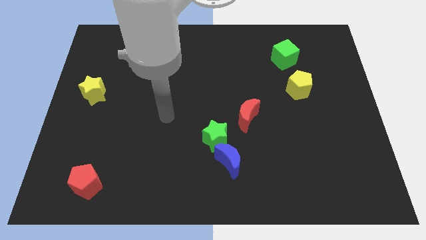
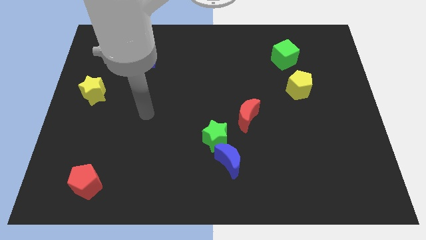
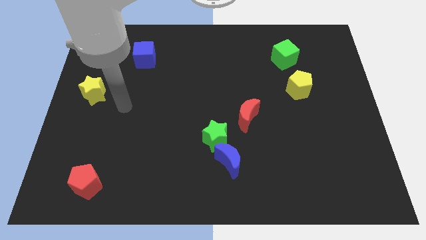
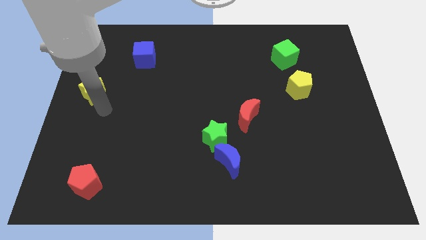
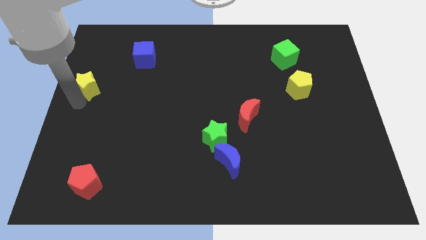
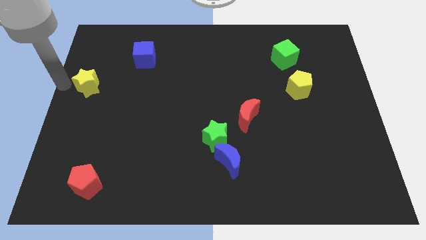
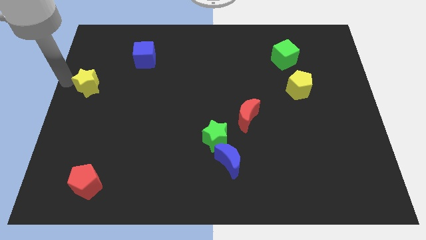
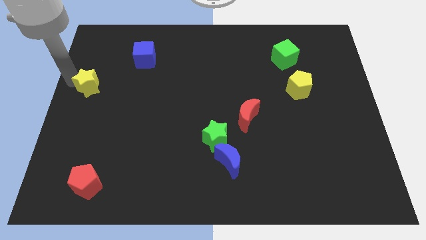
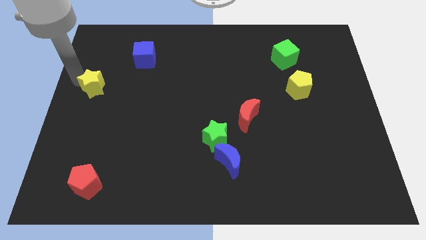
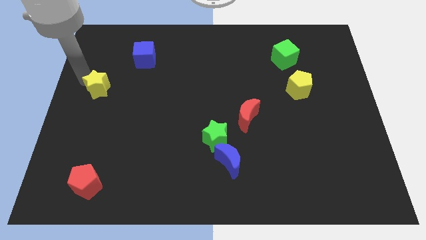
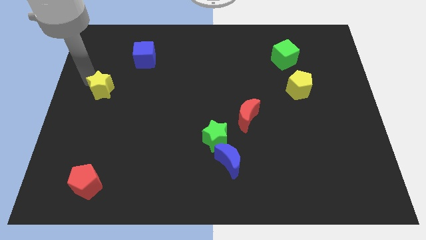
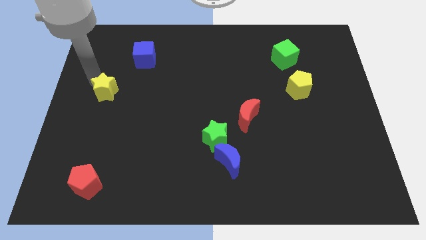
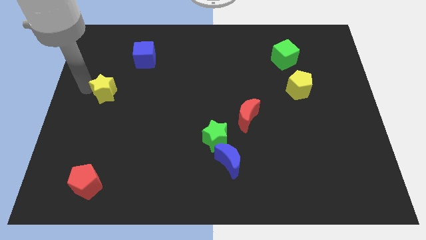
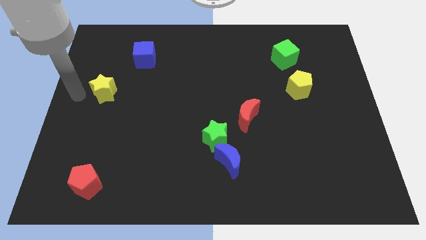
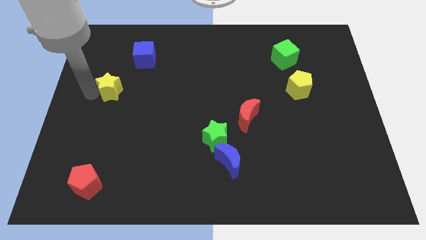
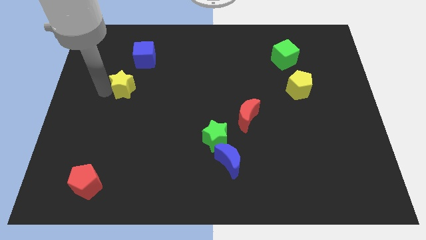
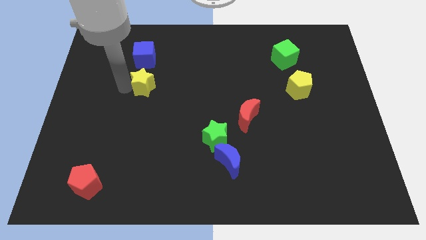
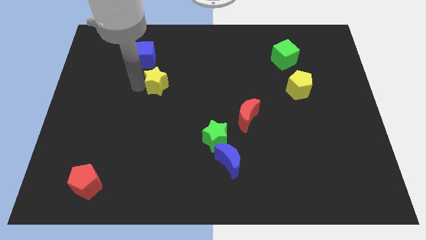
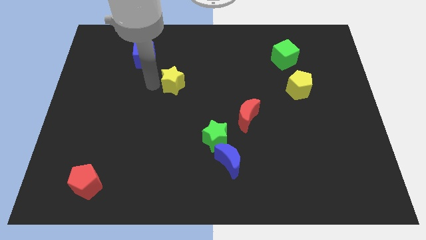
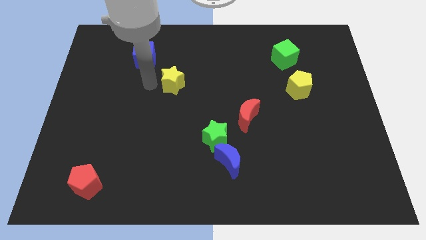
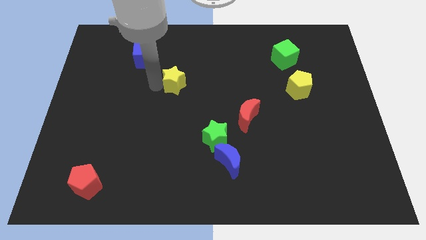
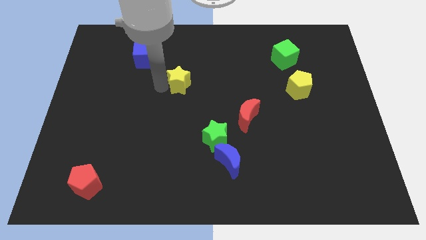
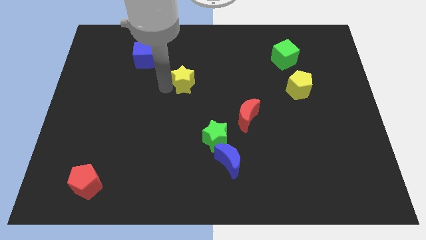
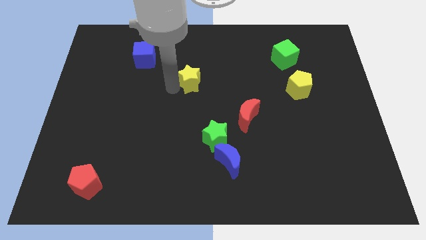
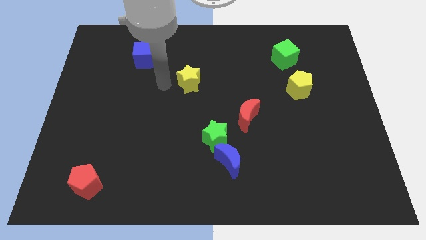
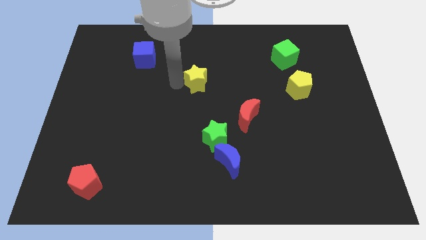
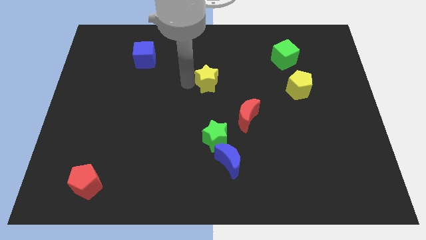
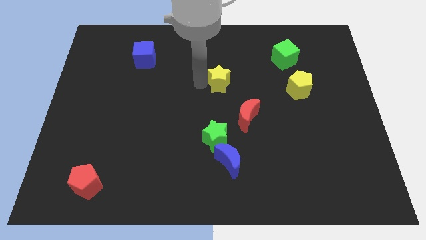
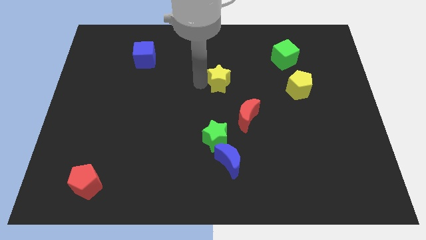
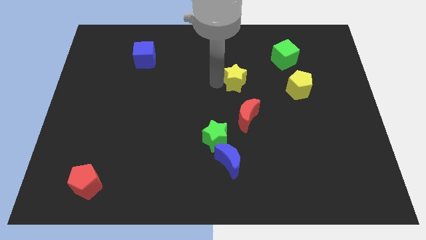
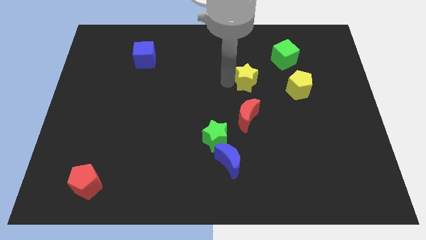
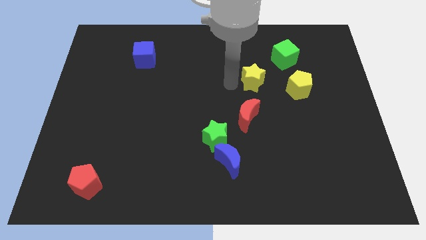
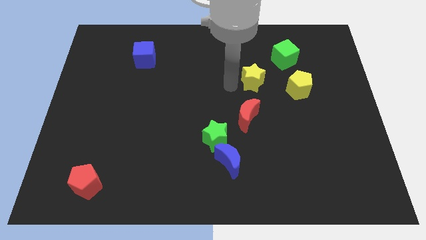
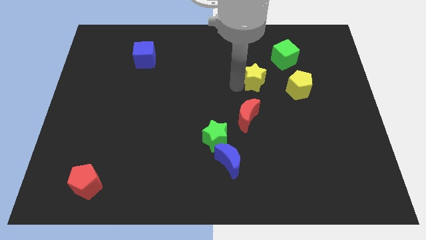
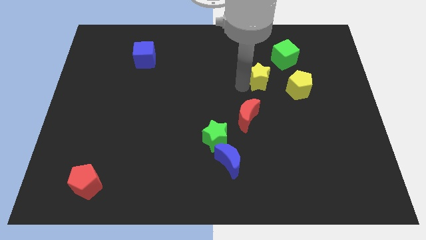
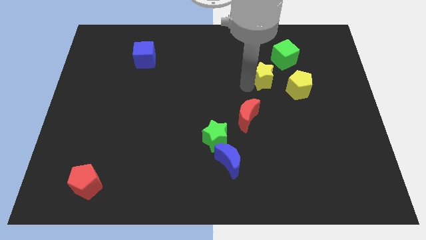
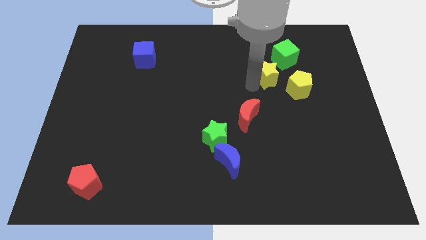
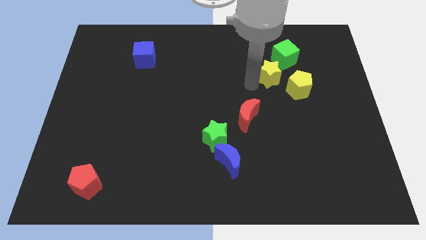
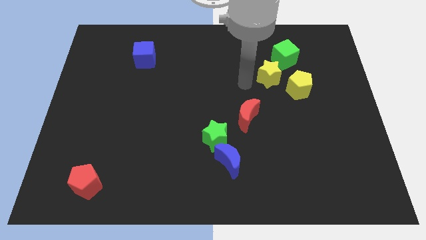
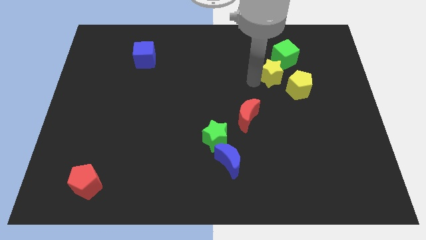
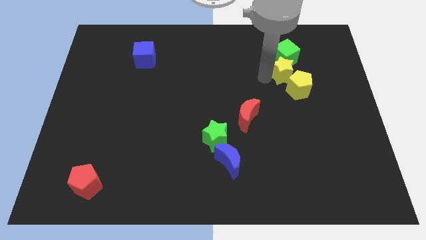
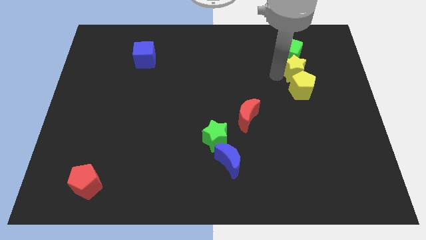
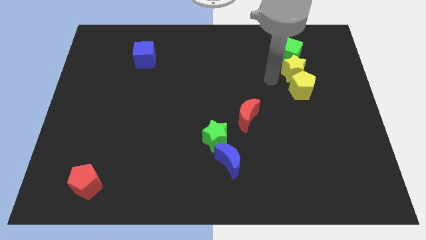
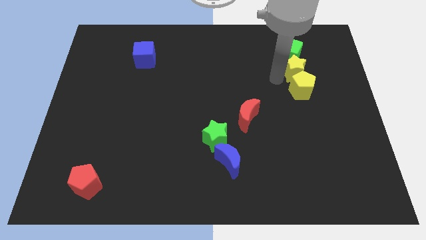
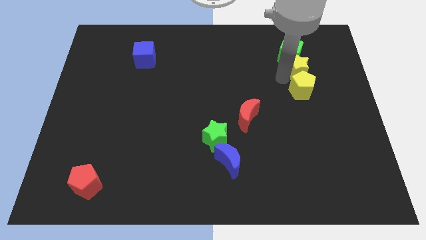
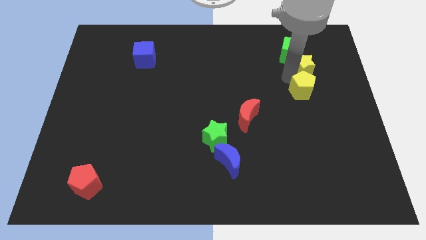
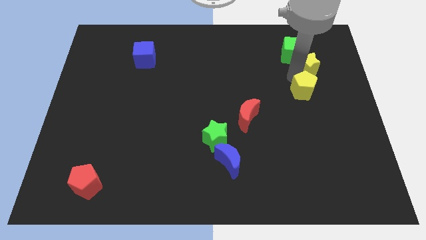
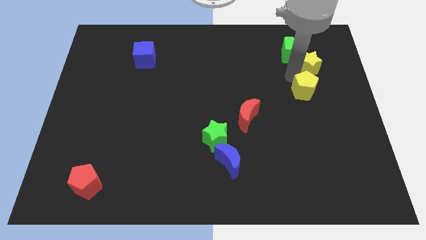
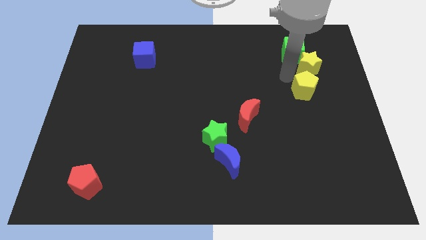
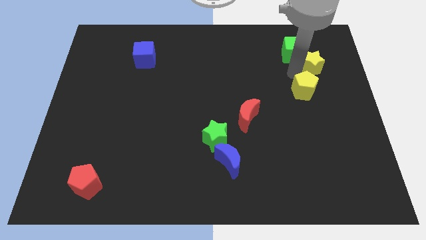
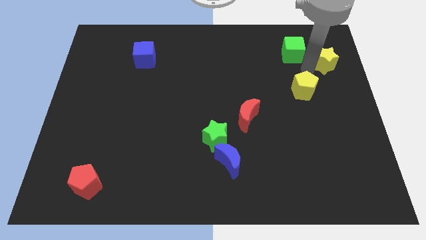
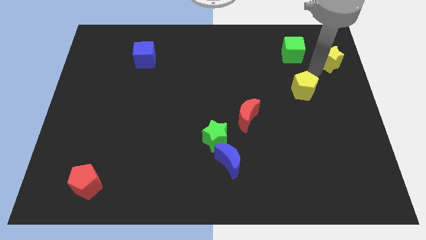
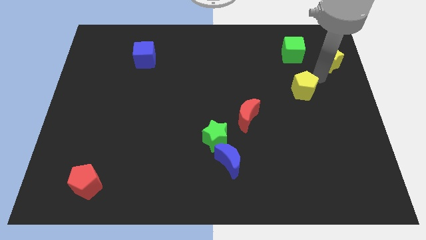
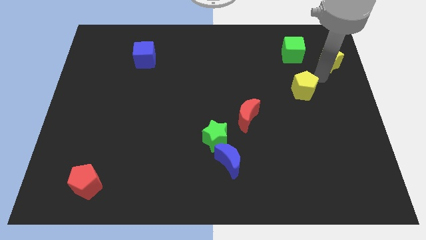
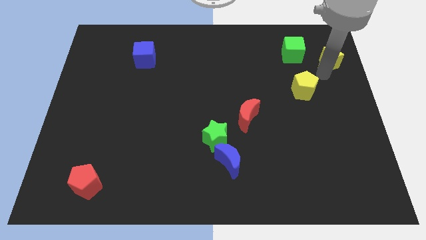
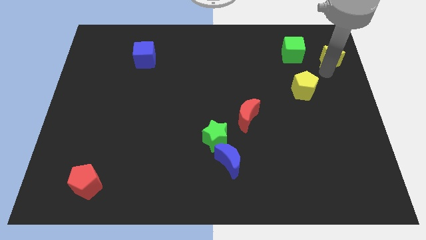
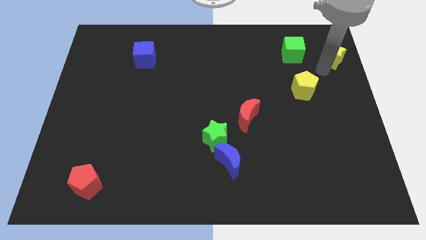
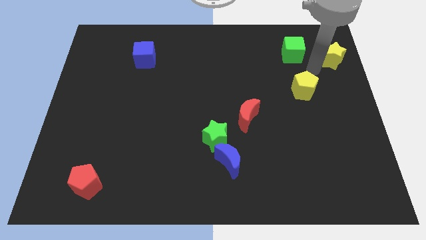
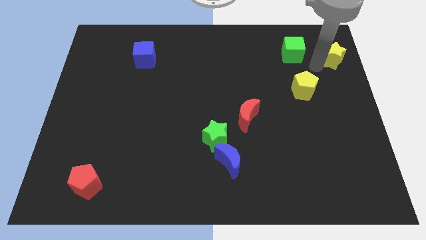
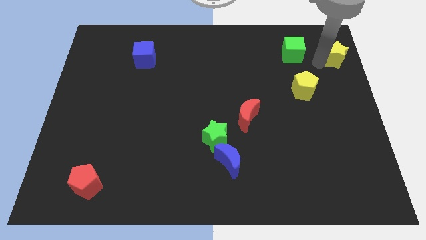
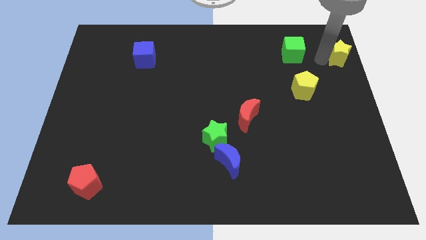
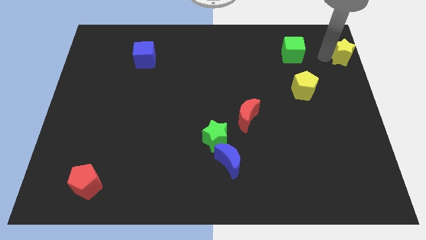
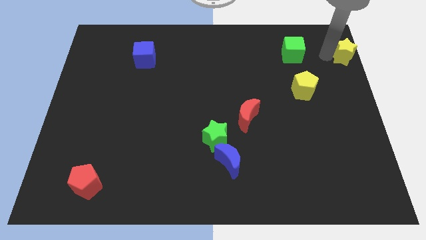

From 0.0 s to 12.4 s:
slide the yellow star to the top right corner

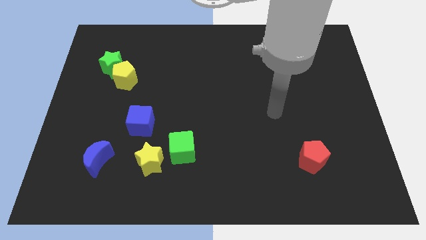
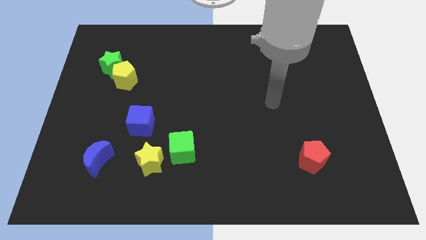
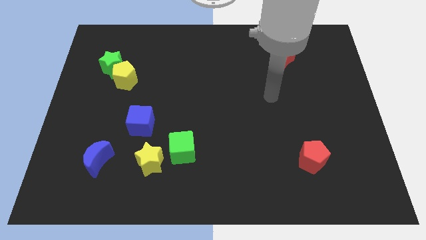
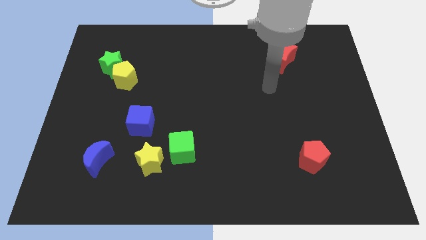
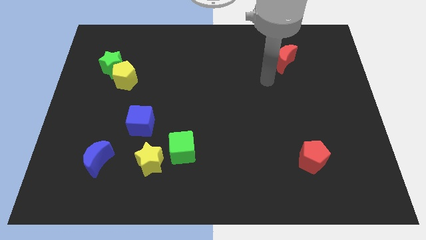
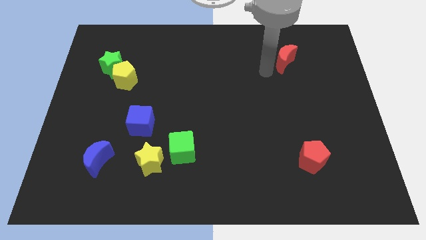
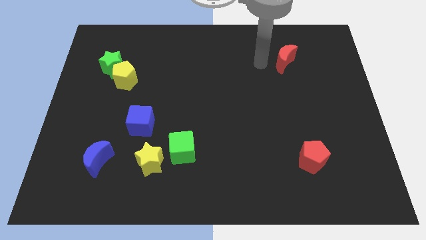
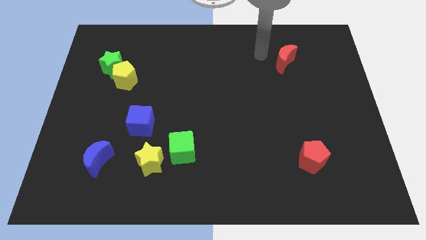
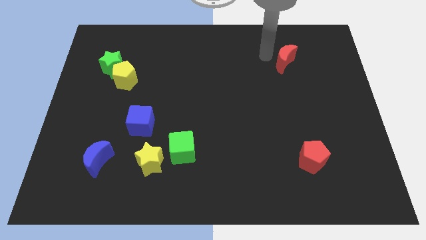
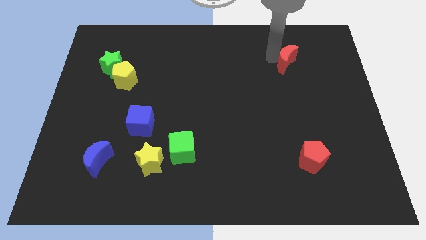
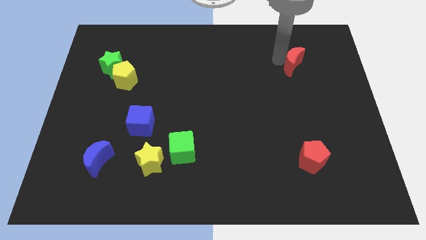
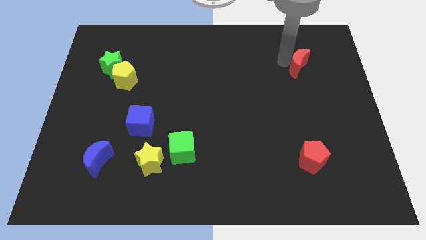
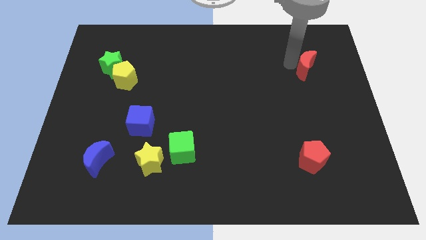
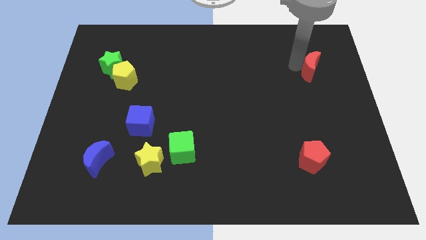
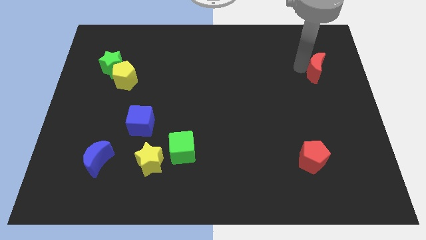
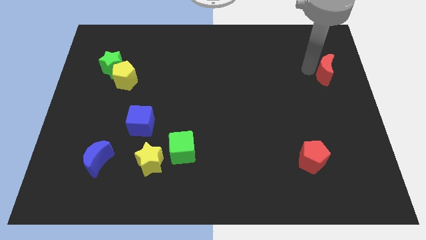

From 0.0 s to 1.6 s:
slide the red moon to the center right
